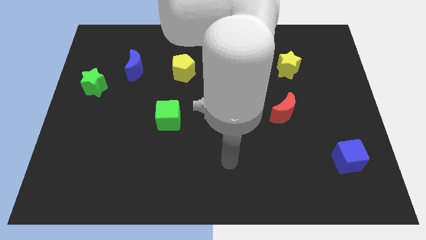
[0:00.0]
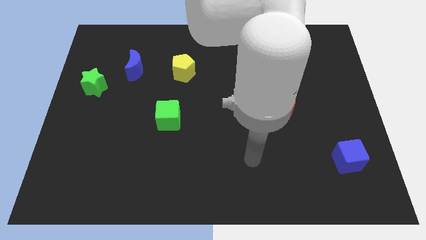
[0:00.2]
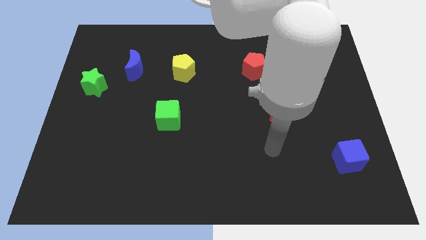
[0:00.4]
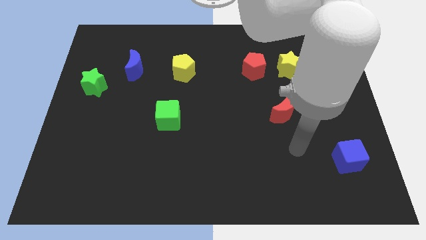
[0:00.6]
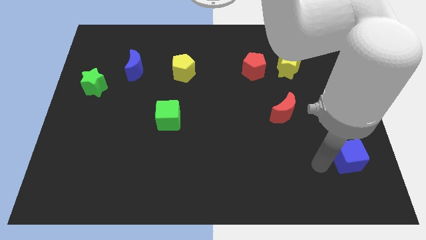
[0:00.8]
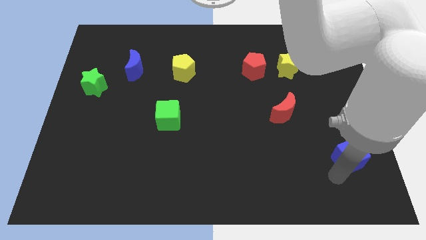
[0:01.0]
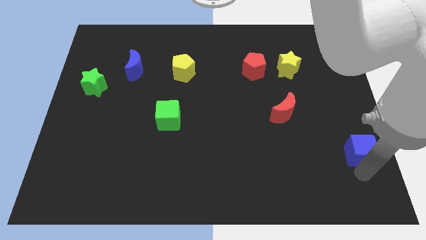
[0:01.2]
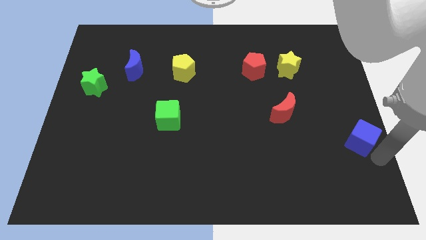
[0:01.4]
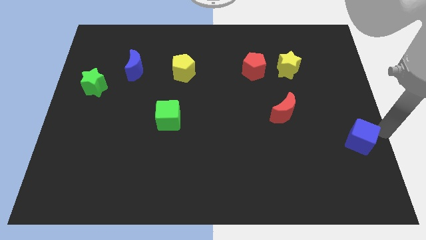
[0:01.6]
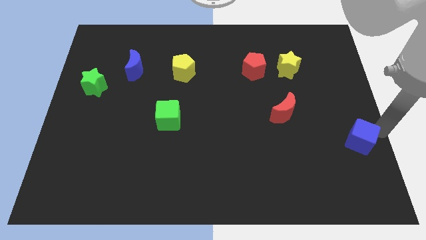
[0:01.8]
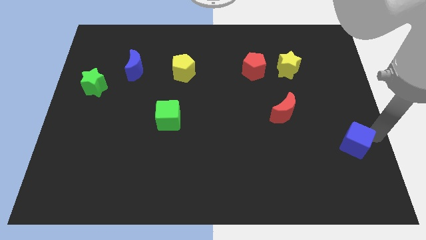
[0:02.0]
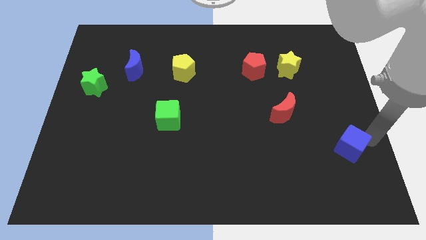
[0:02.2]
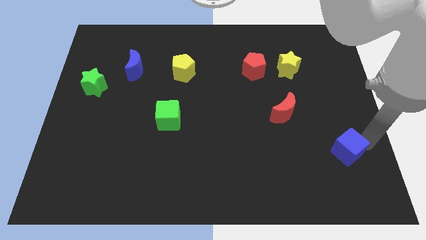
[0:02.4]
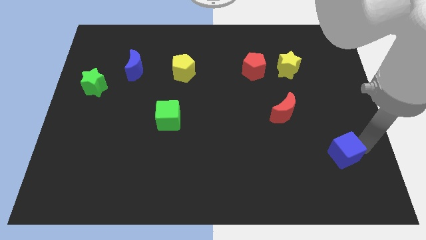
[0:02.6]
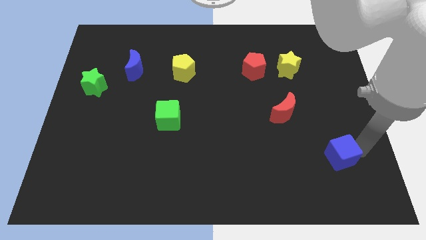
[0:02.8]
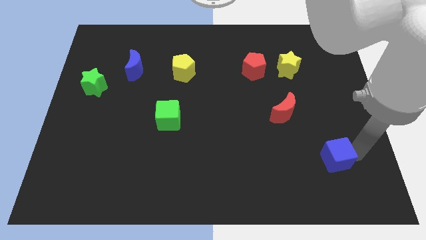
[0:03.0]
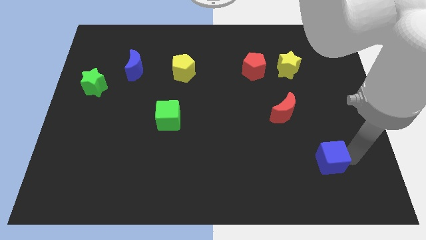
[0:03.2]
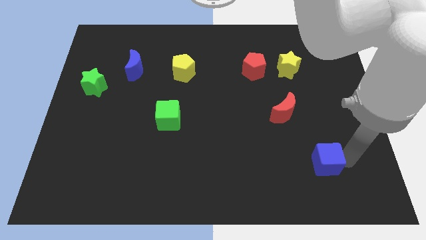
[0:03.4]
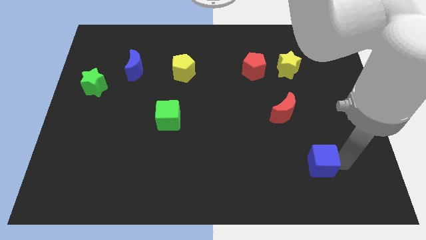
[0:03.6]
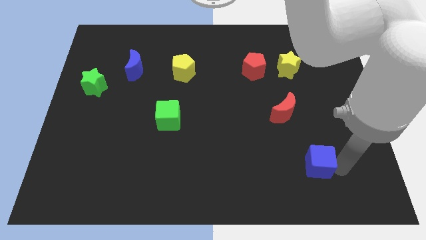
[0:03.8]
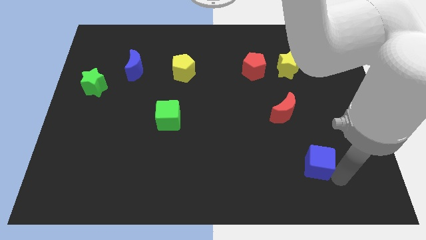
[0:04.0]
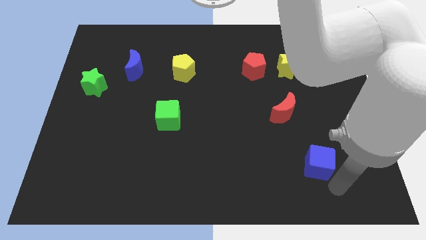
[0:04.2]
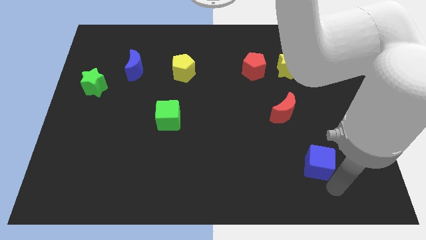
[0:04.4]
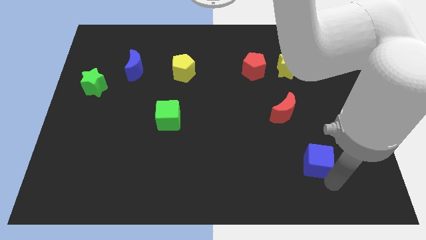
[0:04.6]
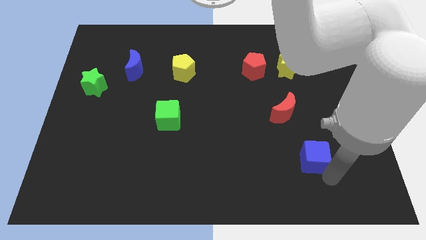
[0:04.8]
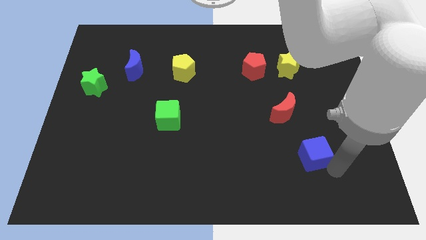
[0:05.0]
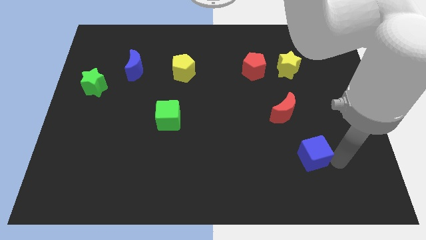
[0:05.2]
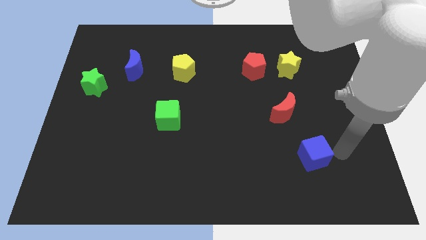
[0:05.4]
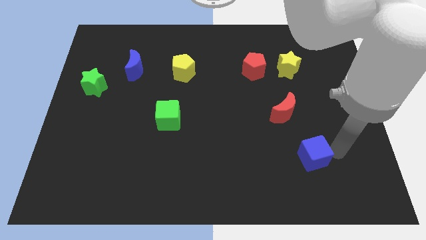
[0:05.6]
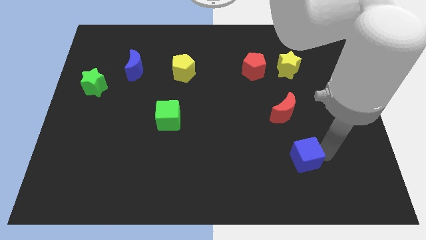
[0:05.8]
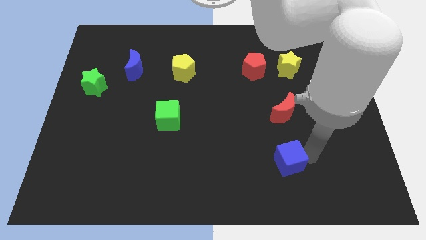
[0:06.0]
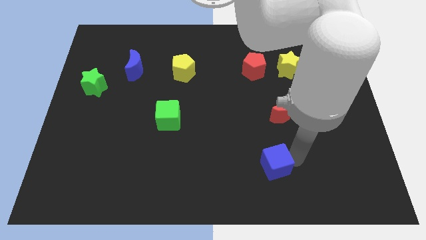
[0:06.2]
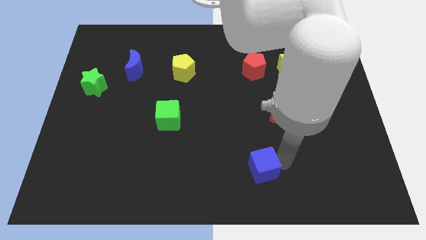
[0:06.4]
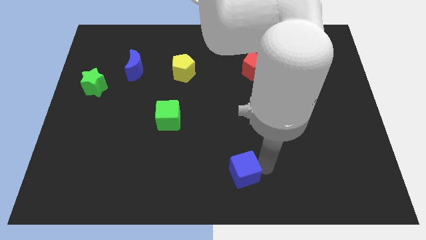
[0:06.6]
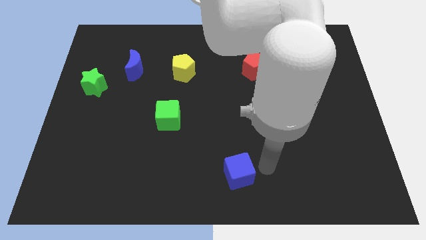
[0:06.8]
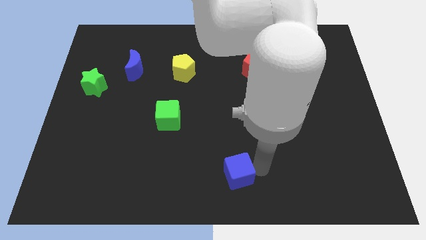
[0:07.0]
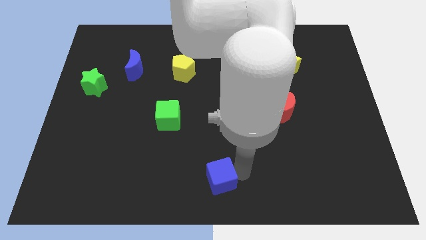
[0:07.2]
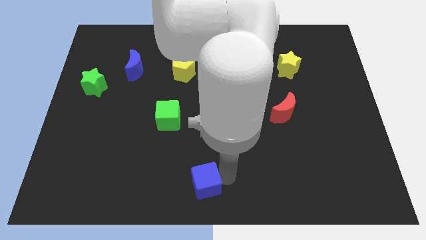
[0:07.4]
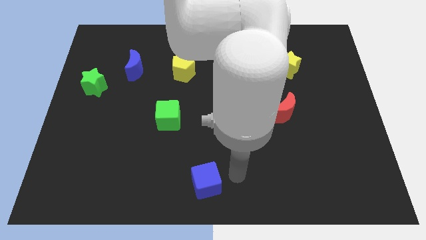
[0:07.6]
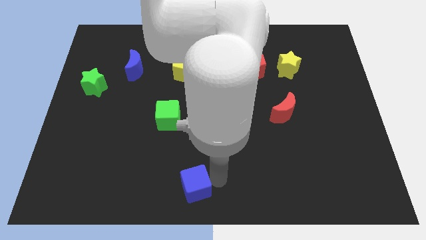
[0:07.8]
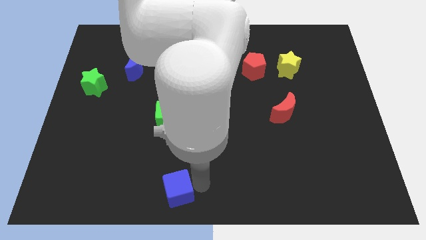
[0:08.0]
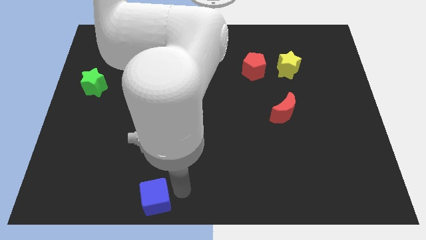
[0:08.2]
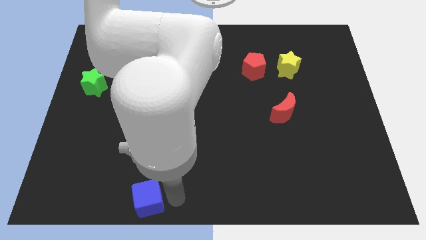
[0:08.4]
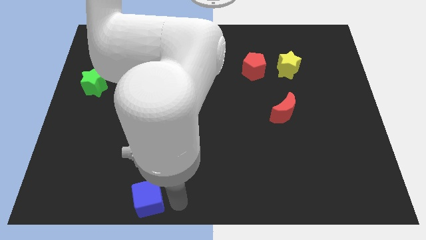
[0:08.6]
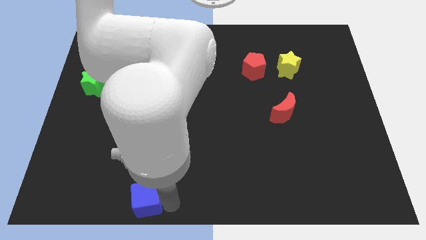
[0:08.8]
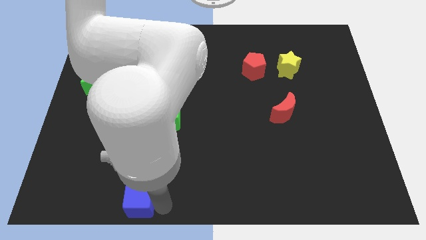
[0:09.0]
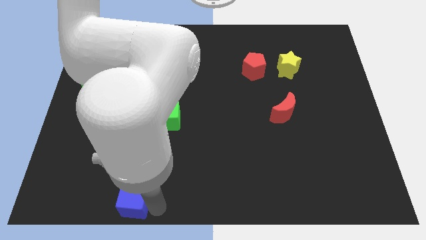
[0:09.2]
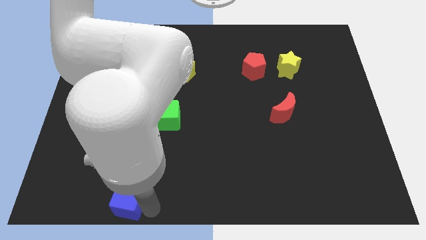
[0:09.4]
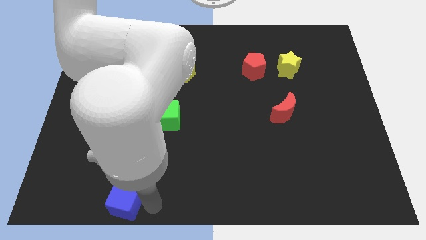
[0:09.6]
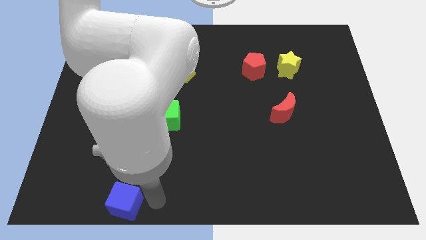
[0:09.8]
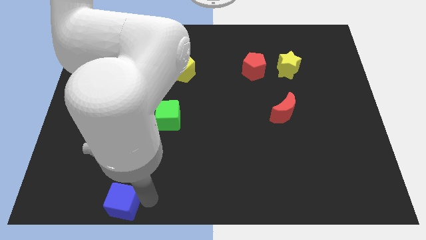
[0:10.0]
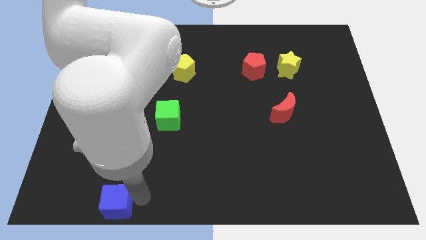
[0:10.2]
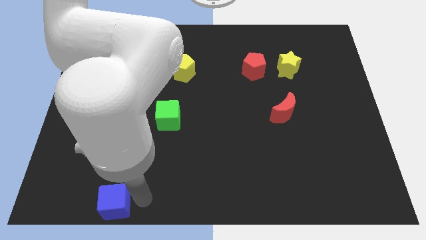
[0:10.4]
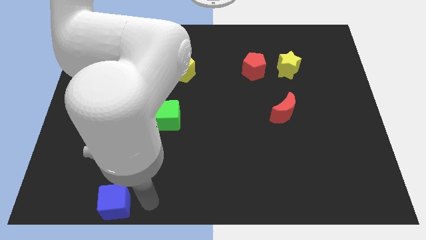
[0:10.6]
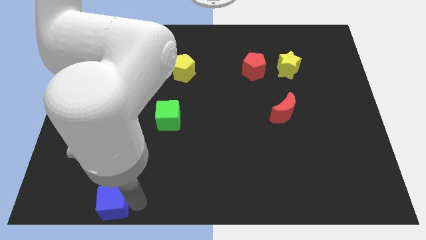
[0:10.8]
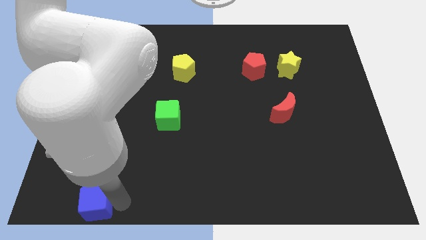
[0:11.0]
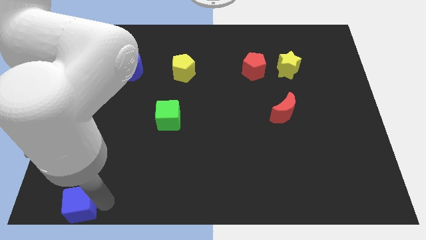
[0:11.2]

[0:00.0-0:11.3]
slide the blue cube to the bottom left of the board

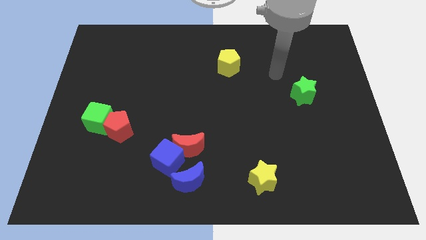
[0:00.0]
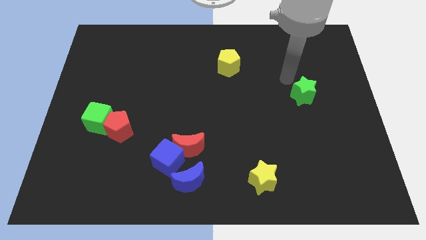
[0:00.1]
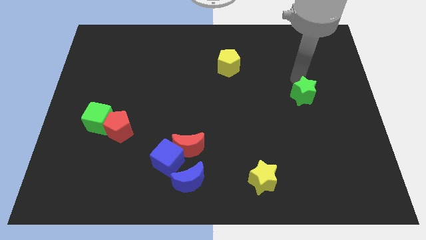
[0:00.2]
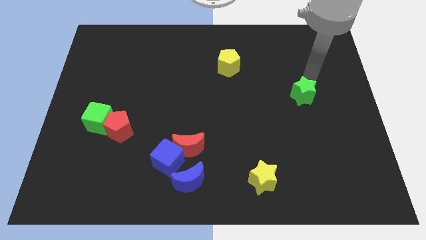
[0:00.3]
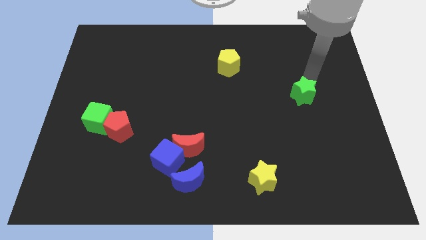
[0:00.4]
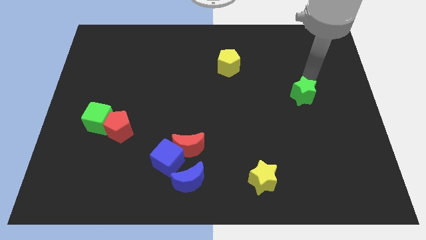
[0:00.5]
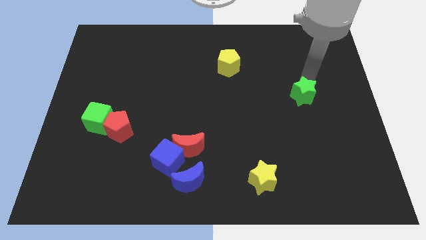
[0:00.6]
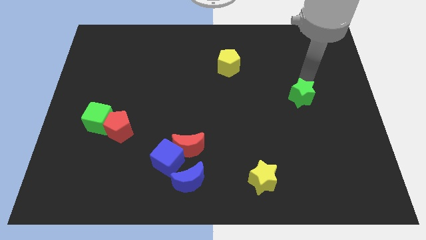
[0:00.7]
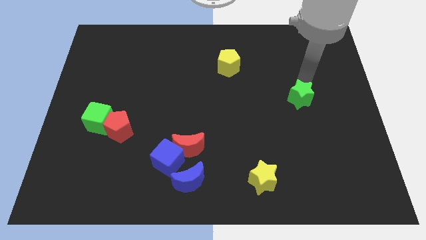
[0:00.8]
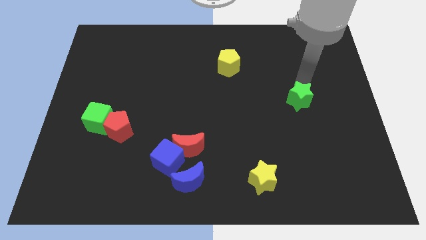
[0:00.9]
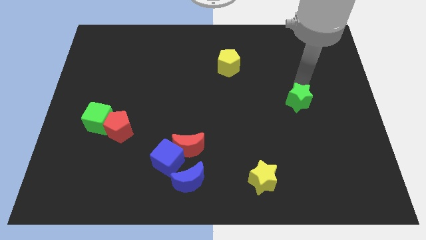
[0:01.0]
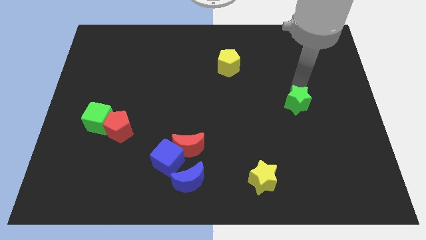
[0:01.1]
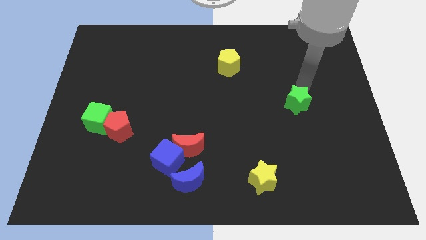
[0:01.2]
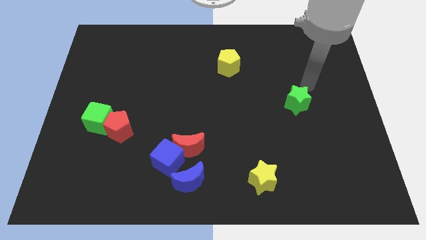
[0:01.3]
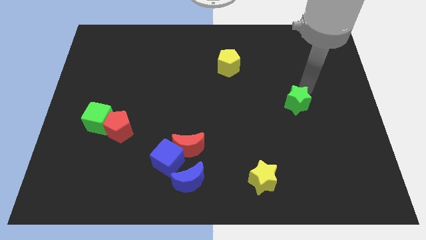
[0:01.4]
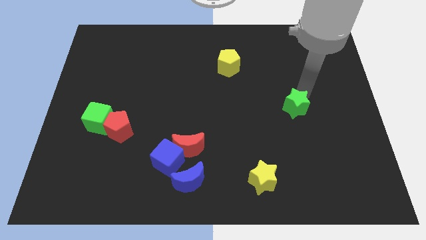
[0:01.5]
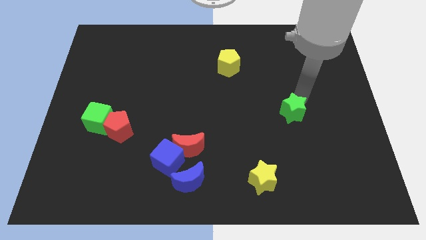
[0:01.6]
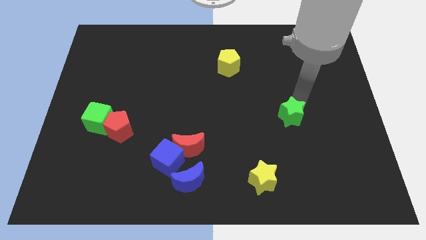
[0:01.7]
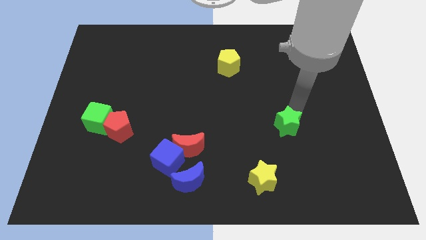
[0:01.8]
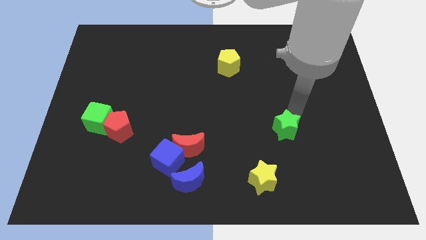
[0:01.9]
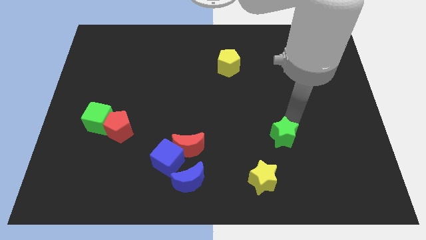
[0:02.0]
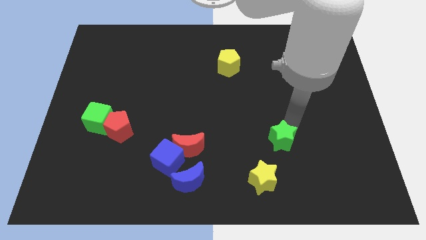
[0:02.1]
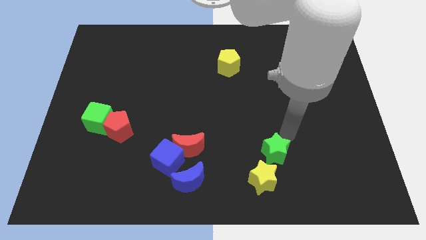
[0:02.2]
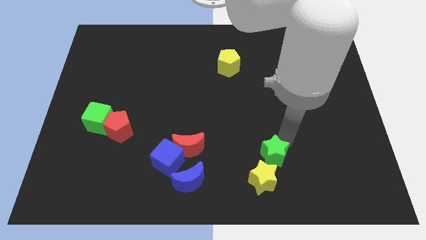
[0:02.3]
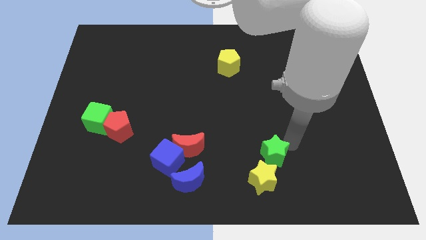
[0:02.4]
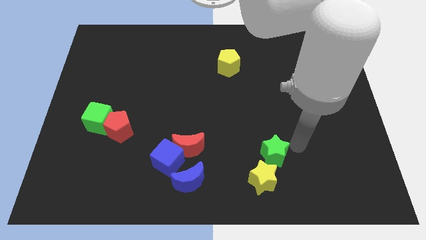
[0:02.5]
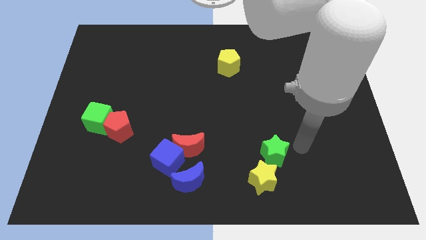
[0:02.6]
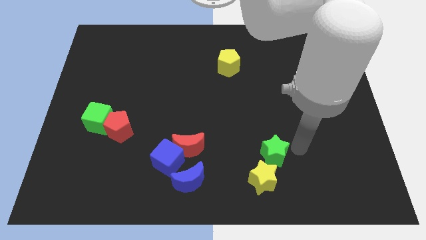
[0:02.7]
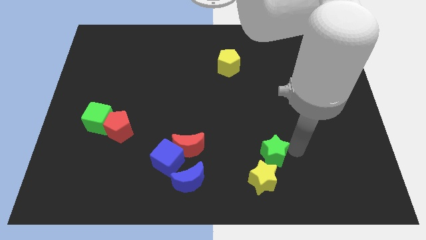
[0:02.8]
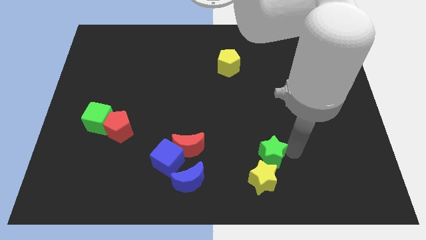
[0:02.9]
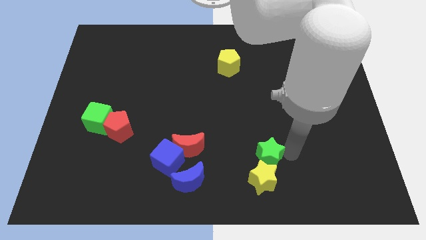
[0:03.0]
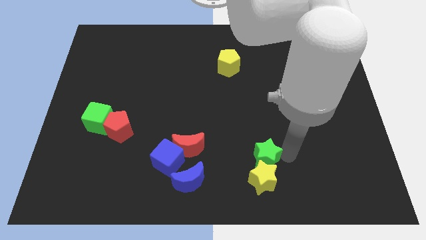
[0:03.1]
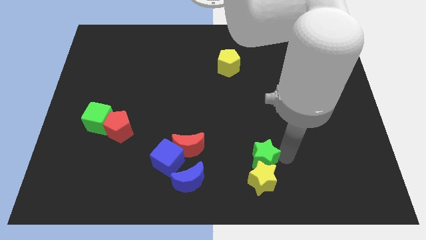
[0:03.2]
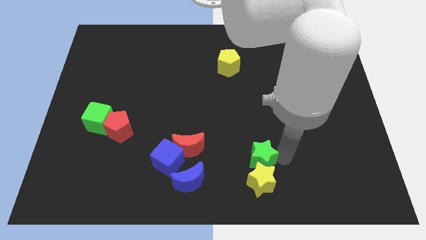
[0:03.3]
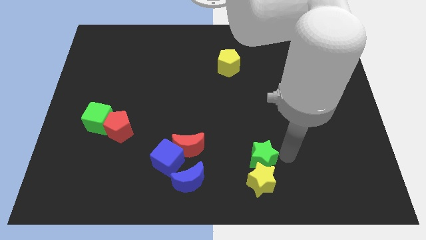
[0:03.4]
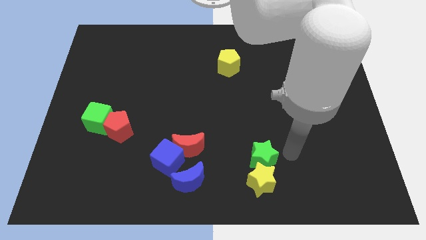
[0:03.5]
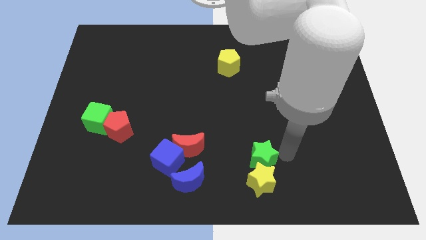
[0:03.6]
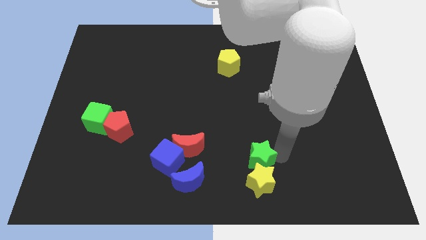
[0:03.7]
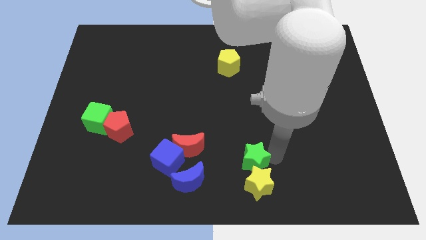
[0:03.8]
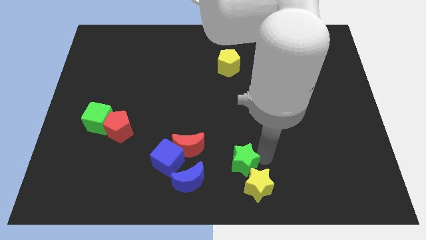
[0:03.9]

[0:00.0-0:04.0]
move the green star to the bottom
